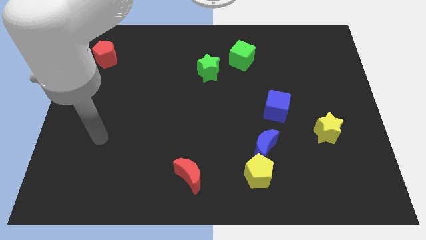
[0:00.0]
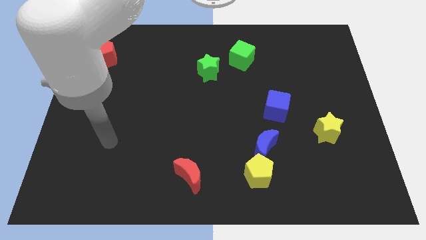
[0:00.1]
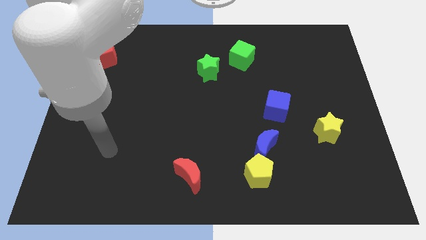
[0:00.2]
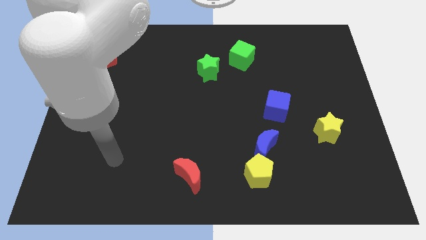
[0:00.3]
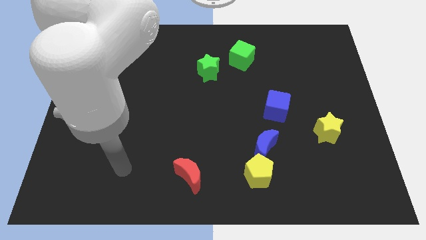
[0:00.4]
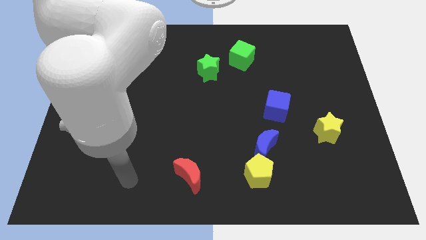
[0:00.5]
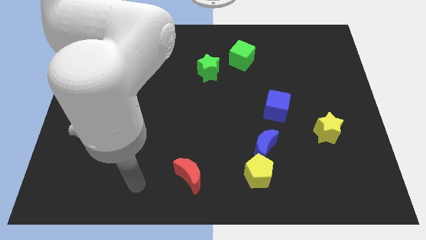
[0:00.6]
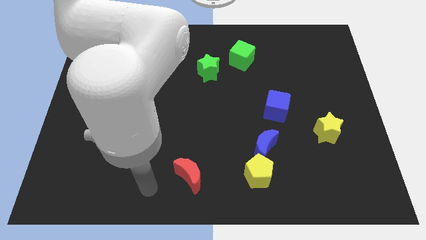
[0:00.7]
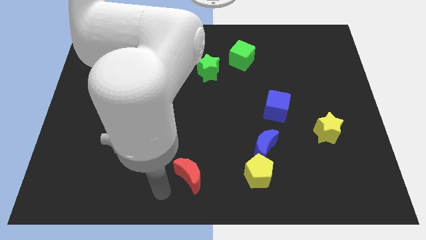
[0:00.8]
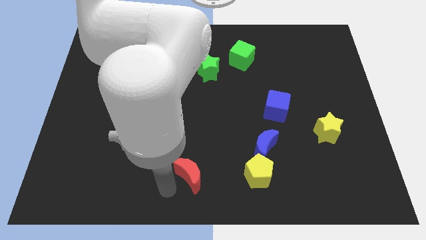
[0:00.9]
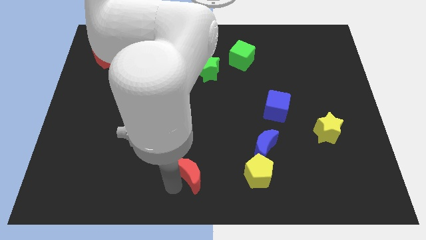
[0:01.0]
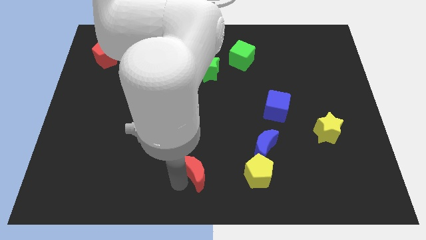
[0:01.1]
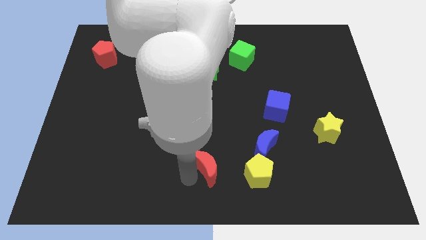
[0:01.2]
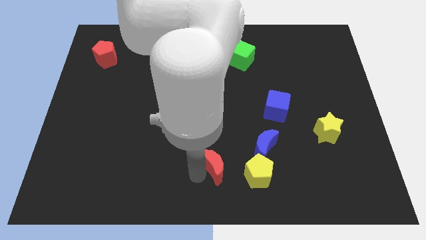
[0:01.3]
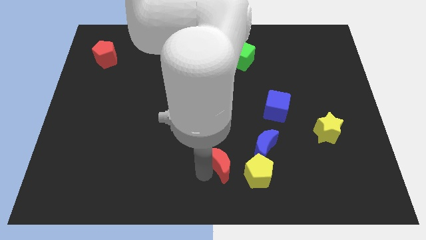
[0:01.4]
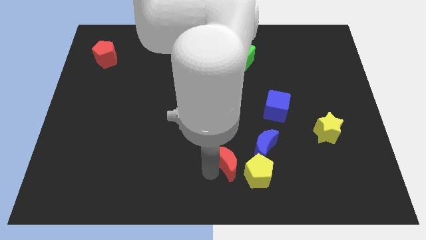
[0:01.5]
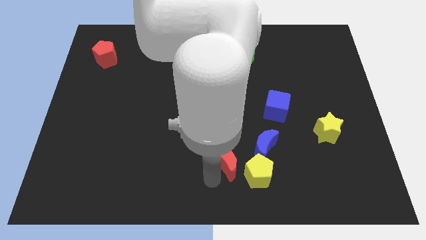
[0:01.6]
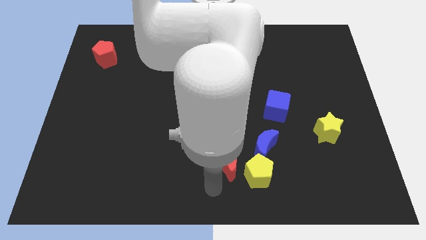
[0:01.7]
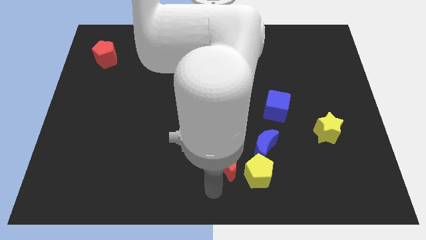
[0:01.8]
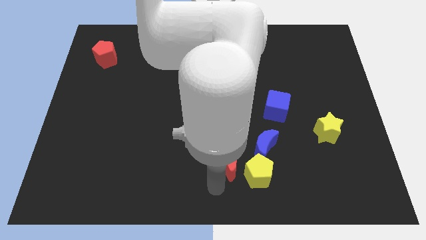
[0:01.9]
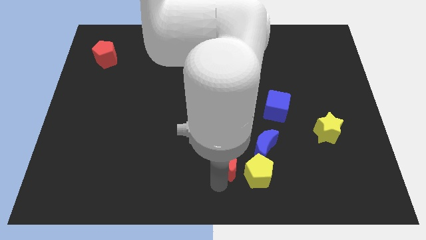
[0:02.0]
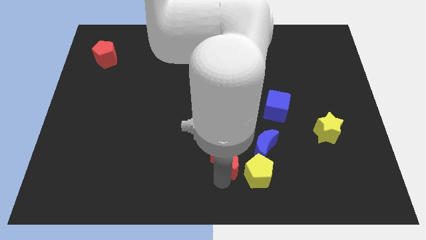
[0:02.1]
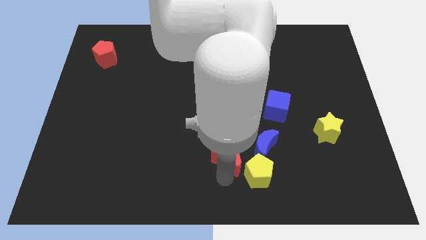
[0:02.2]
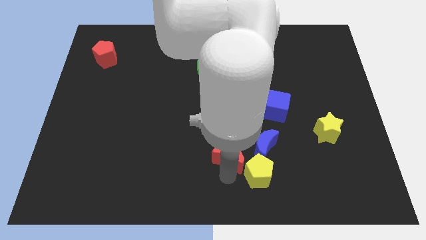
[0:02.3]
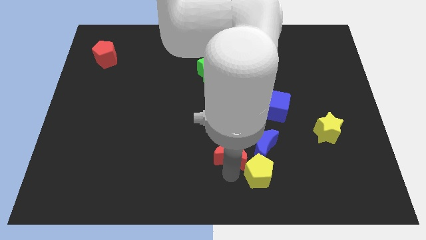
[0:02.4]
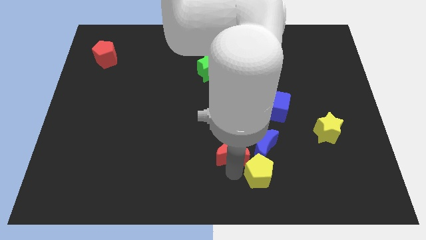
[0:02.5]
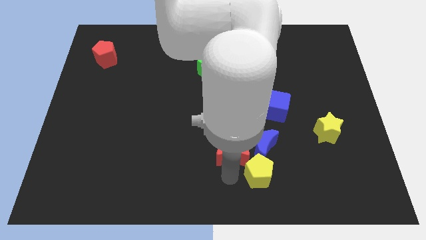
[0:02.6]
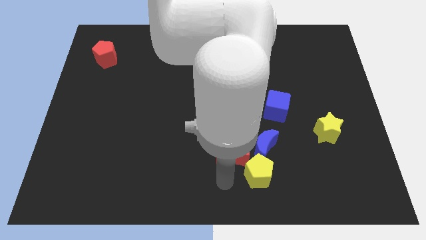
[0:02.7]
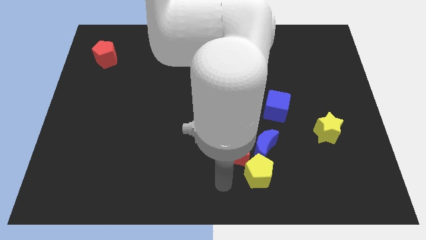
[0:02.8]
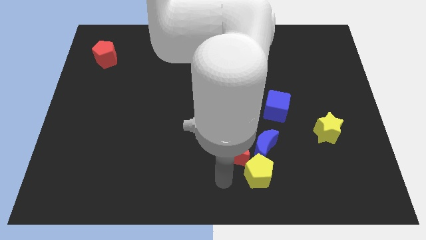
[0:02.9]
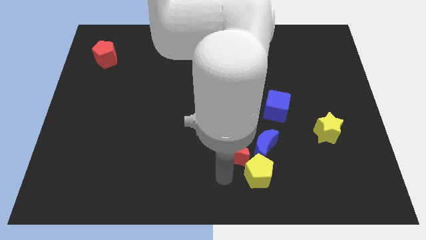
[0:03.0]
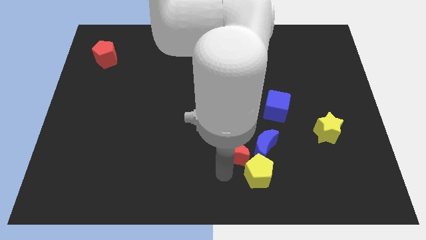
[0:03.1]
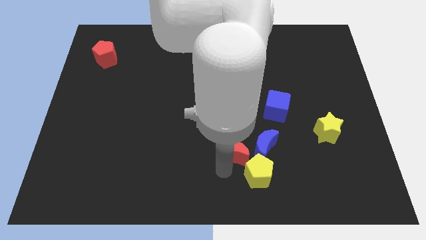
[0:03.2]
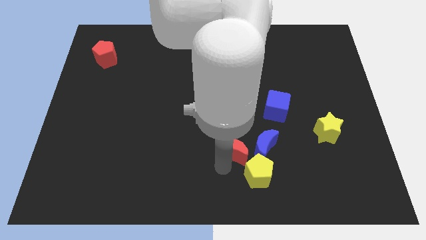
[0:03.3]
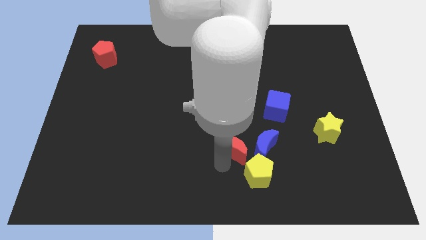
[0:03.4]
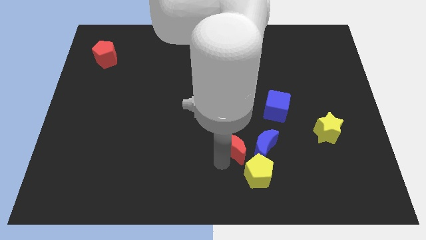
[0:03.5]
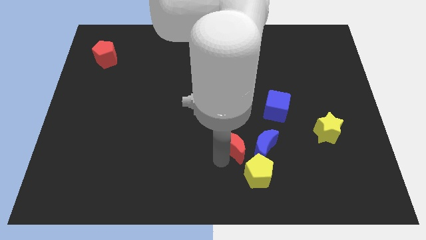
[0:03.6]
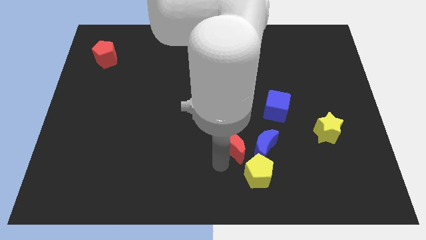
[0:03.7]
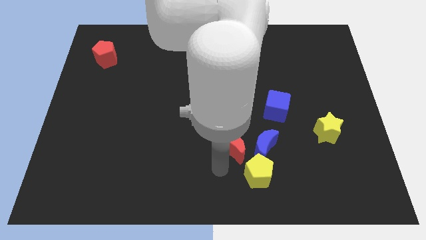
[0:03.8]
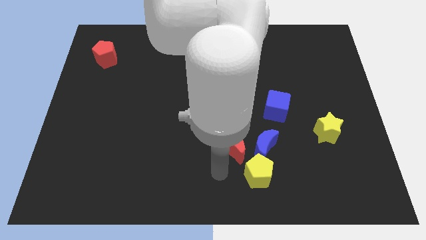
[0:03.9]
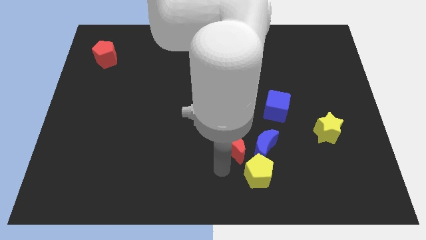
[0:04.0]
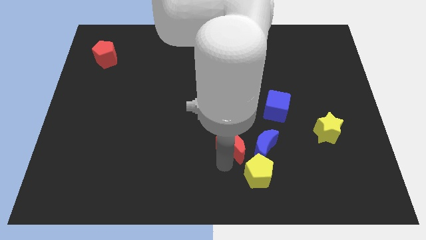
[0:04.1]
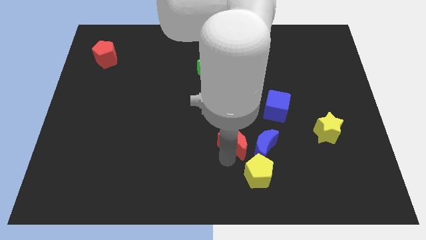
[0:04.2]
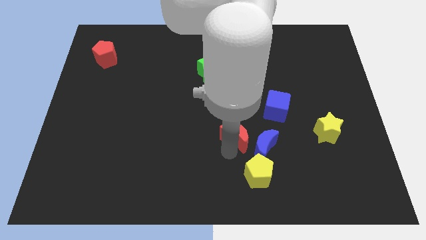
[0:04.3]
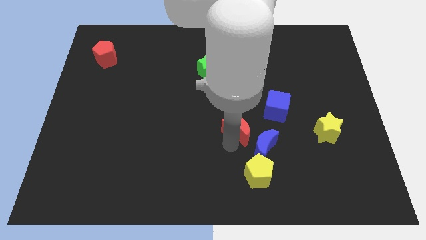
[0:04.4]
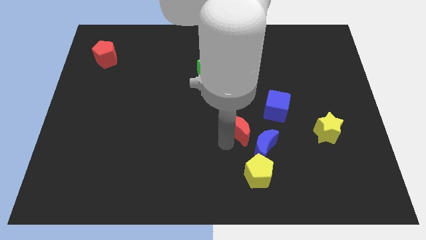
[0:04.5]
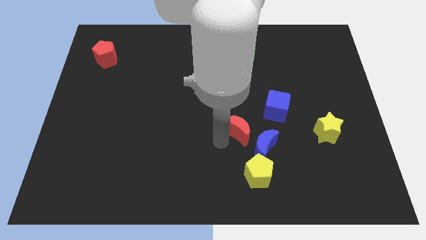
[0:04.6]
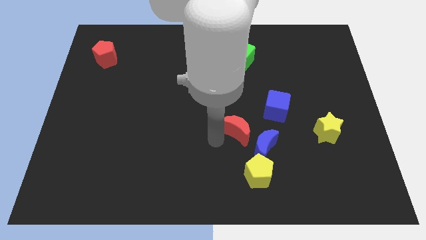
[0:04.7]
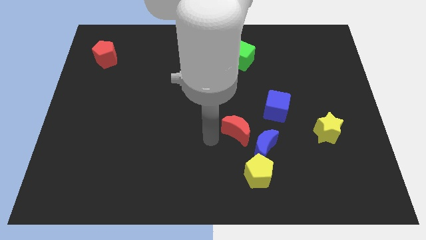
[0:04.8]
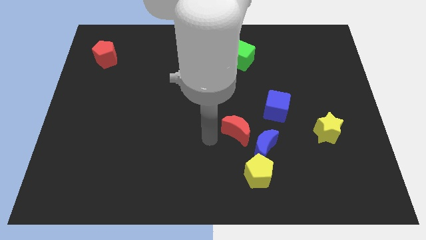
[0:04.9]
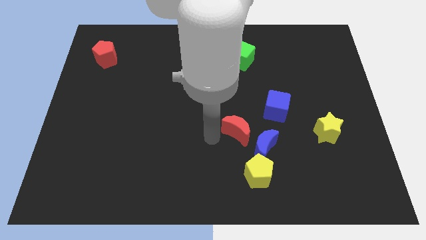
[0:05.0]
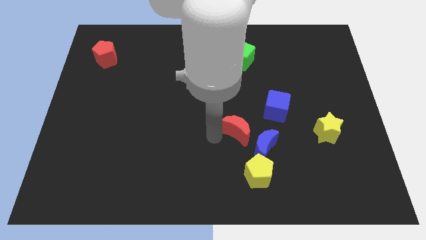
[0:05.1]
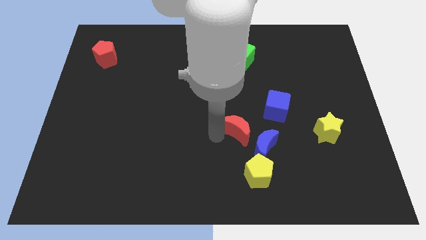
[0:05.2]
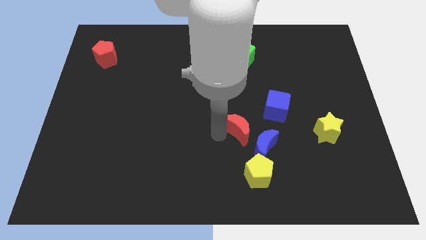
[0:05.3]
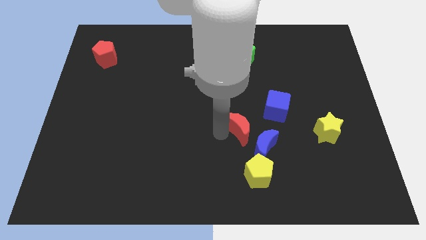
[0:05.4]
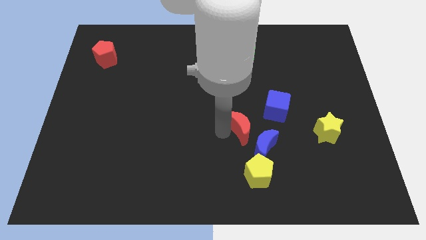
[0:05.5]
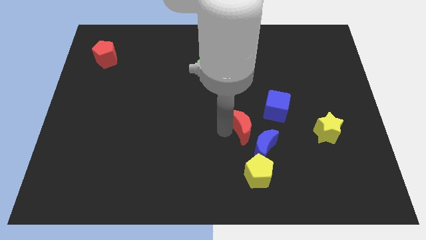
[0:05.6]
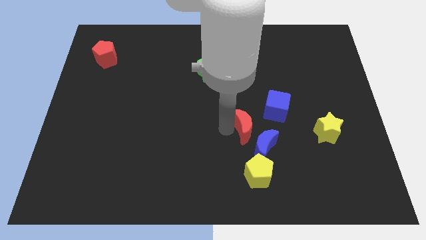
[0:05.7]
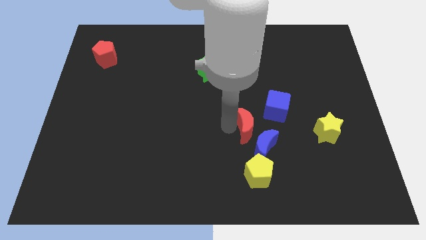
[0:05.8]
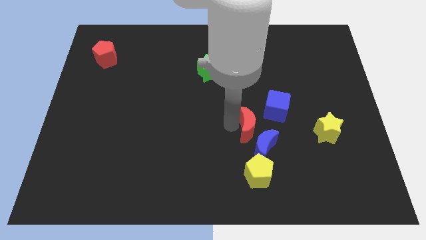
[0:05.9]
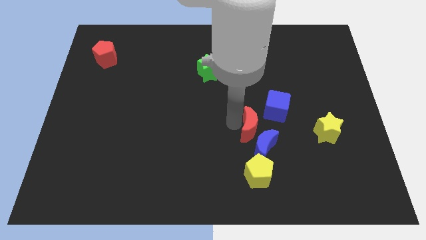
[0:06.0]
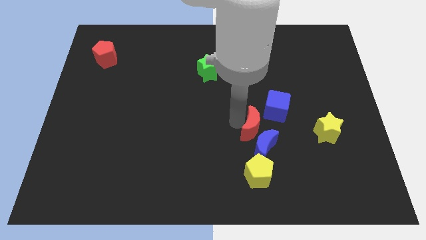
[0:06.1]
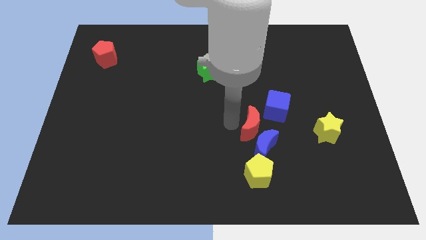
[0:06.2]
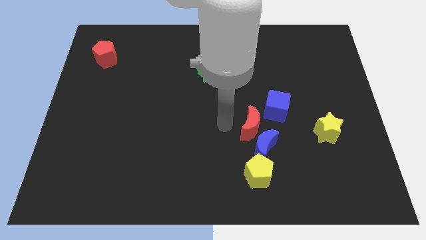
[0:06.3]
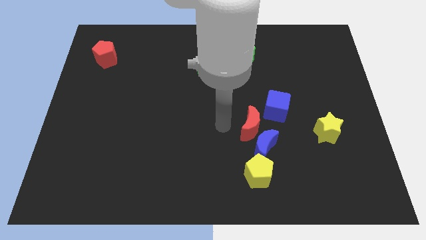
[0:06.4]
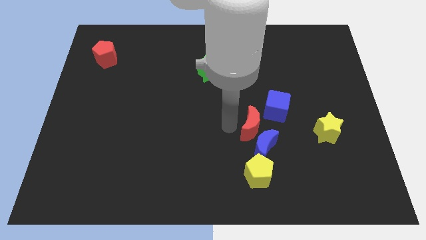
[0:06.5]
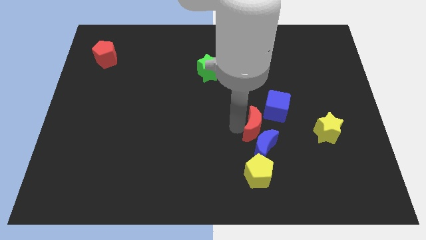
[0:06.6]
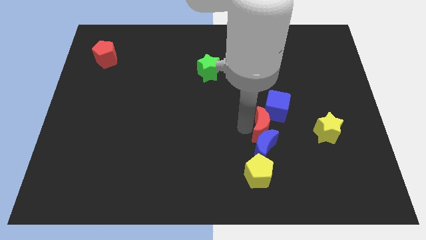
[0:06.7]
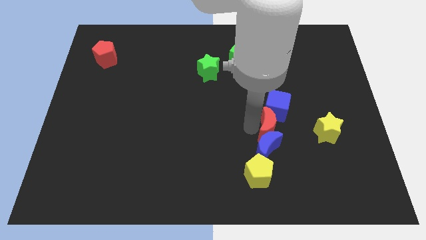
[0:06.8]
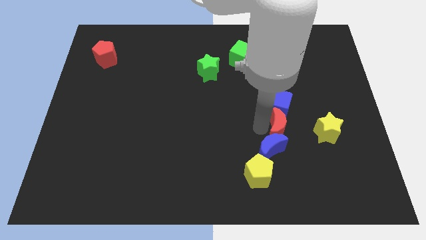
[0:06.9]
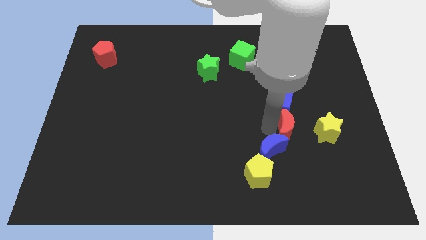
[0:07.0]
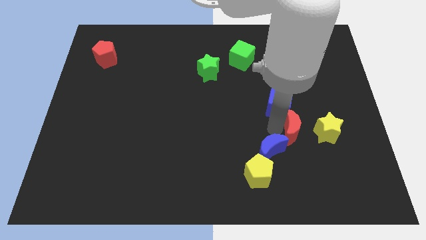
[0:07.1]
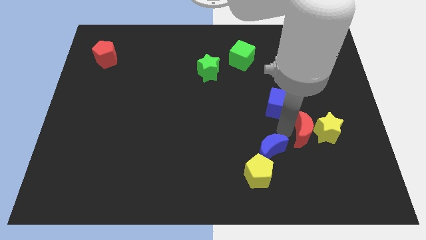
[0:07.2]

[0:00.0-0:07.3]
slide the red moon to the yellow star
